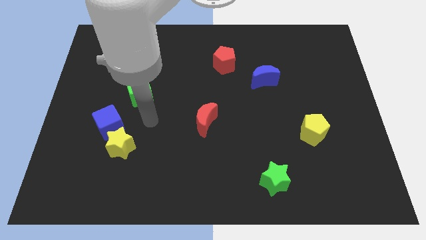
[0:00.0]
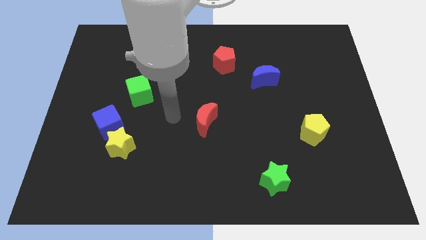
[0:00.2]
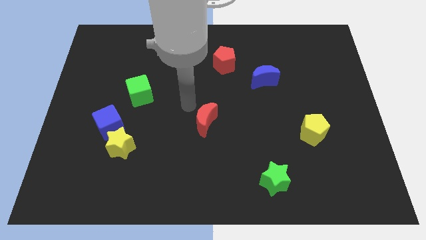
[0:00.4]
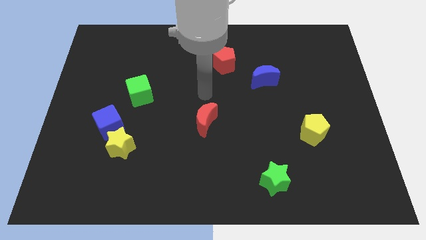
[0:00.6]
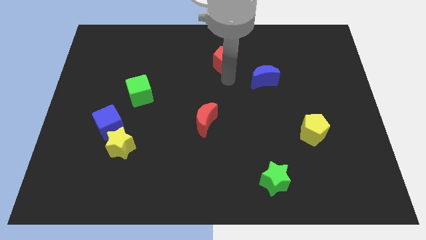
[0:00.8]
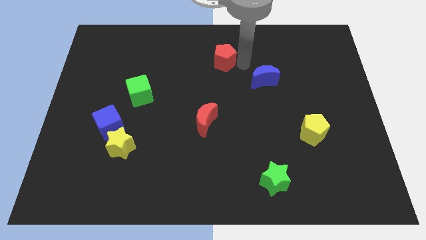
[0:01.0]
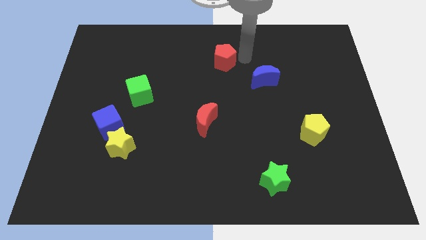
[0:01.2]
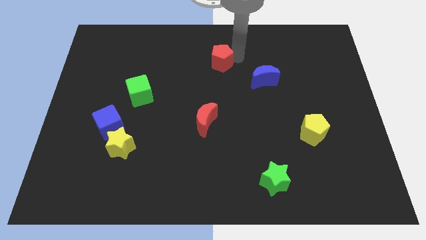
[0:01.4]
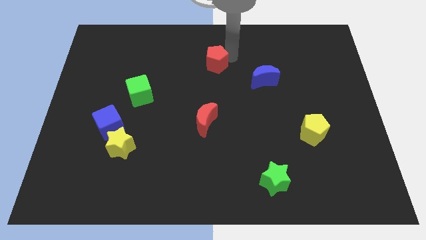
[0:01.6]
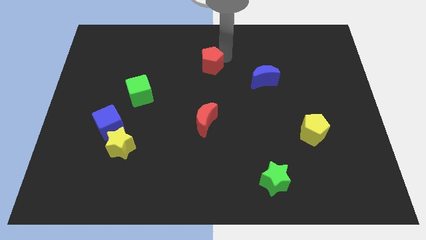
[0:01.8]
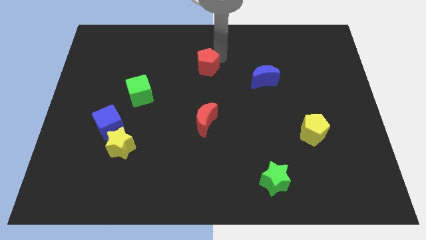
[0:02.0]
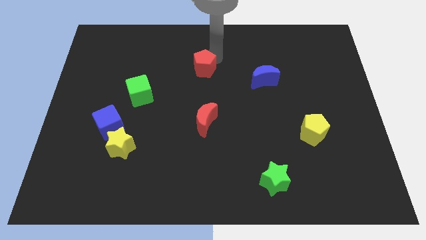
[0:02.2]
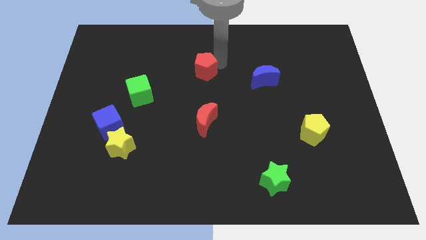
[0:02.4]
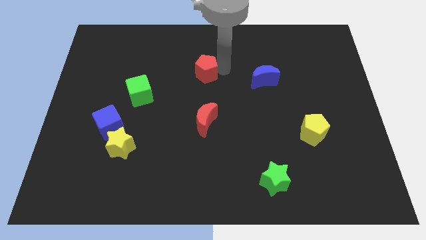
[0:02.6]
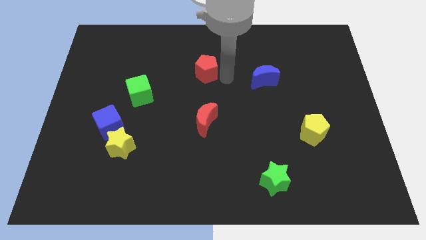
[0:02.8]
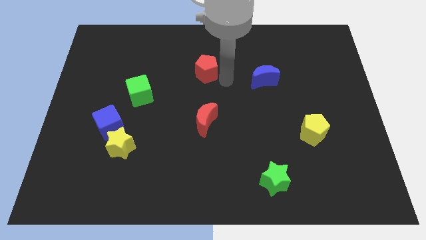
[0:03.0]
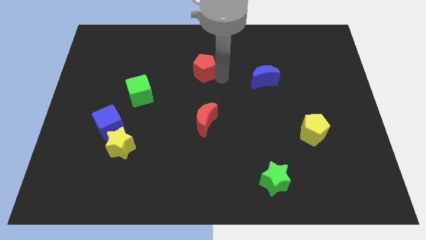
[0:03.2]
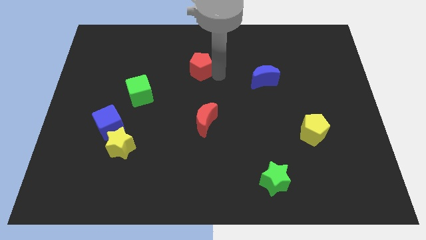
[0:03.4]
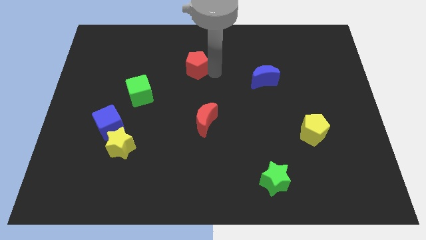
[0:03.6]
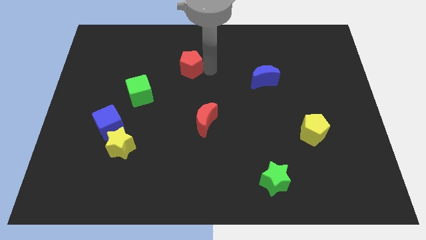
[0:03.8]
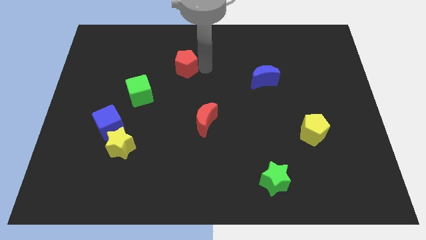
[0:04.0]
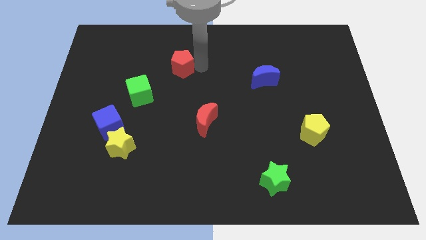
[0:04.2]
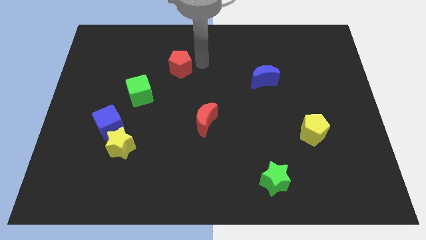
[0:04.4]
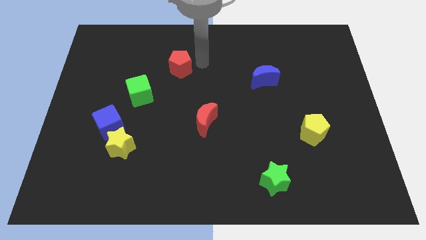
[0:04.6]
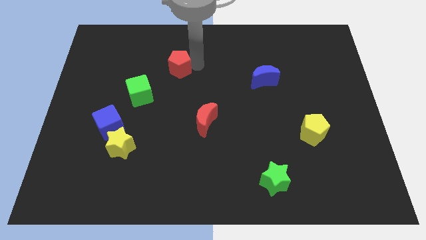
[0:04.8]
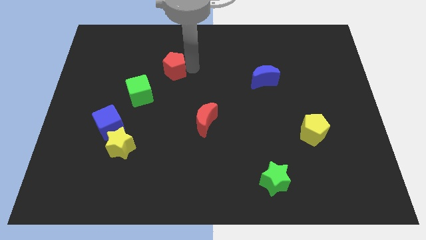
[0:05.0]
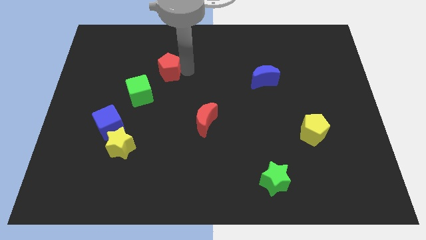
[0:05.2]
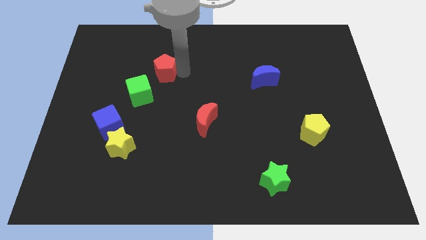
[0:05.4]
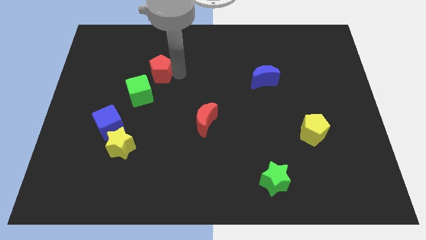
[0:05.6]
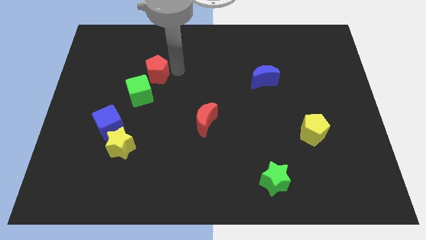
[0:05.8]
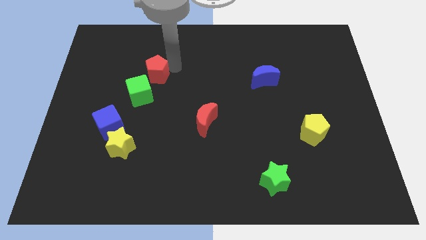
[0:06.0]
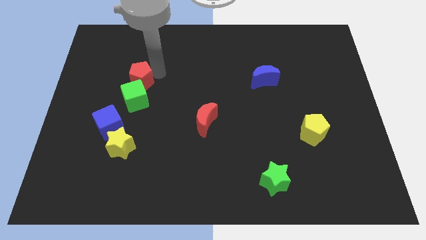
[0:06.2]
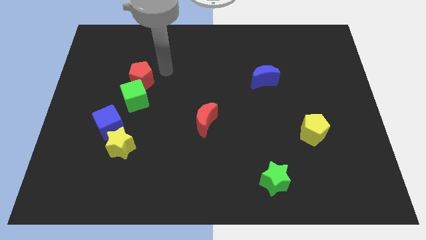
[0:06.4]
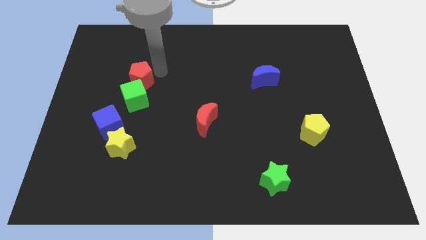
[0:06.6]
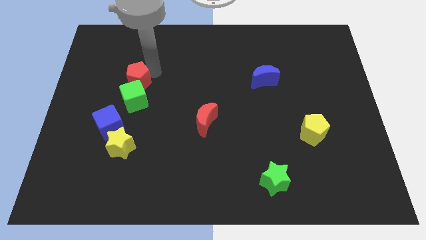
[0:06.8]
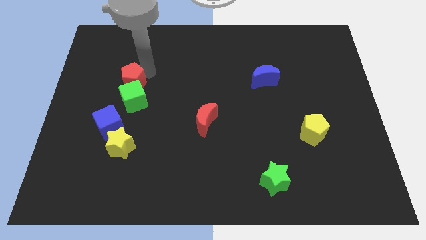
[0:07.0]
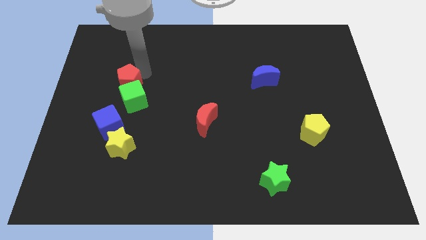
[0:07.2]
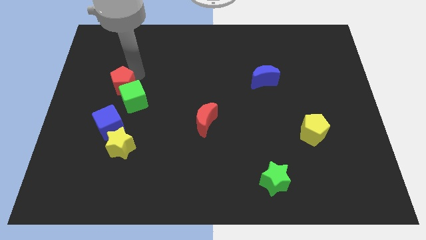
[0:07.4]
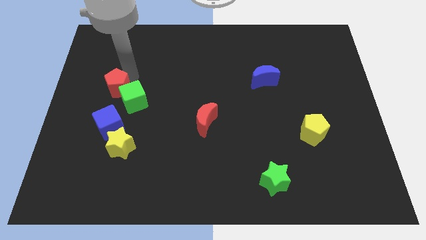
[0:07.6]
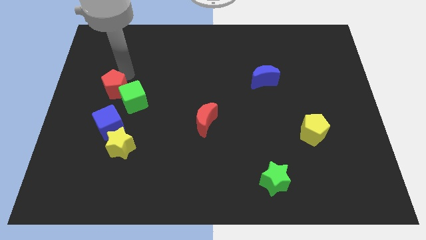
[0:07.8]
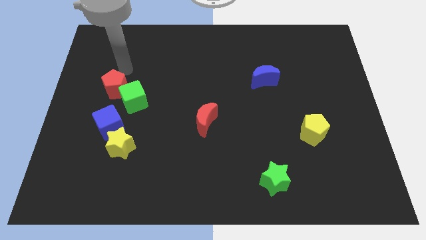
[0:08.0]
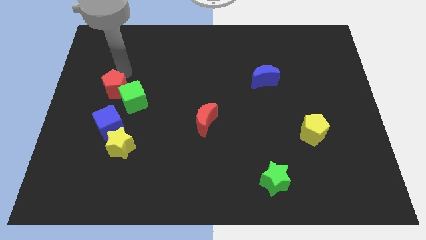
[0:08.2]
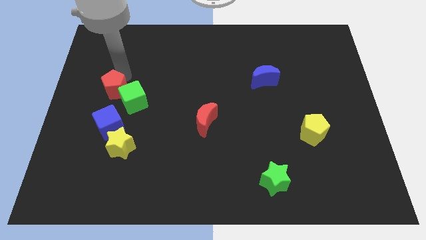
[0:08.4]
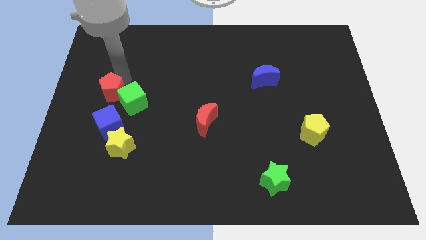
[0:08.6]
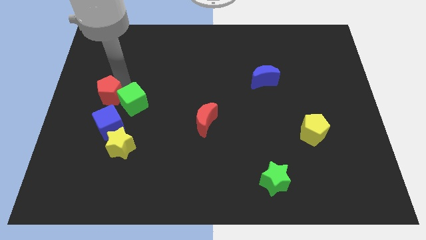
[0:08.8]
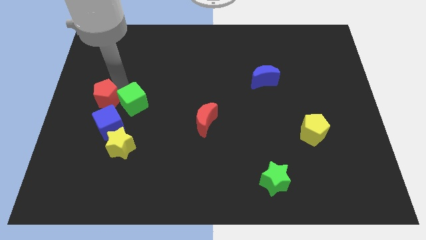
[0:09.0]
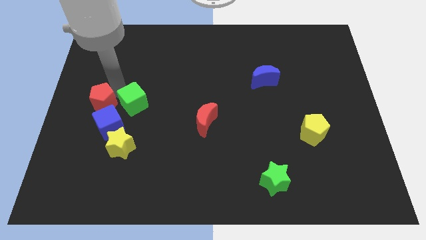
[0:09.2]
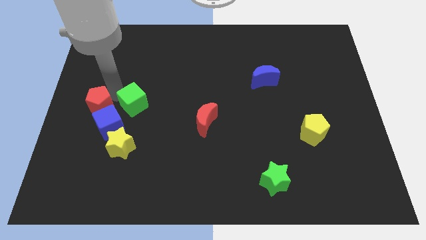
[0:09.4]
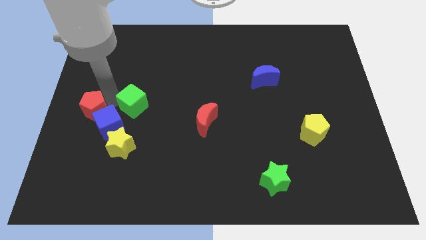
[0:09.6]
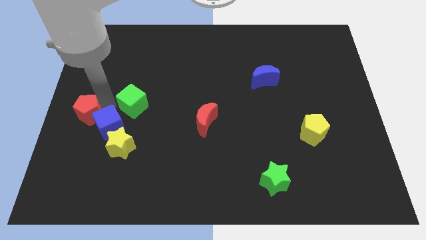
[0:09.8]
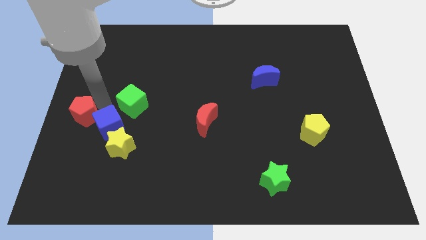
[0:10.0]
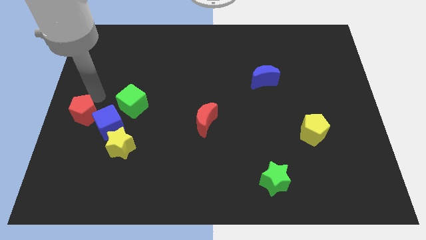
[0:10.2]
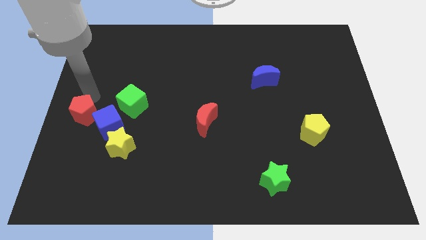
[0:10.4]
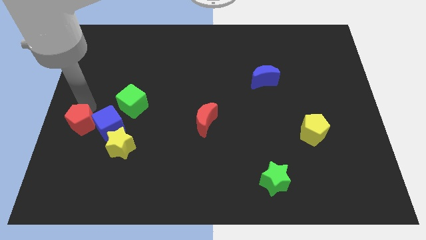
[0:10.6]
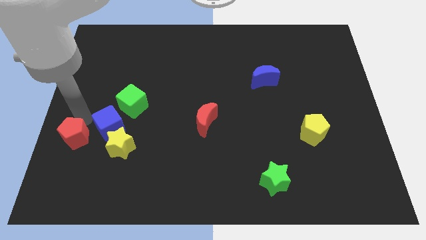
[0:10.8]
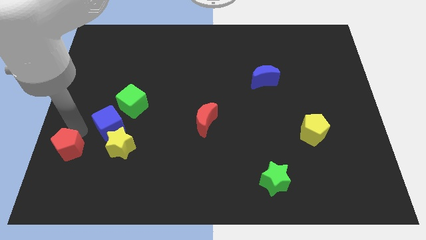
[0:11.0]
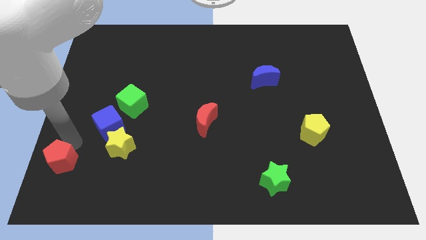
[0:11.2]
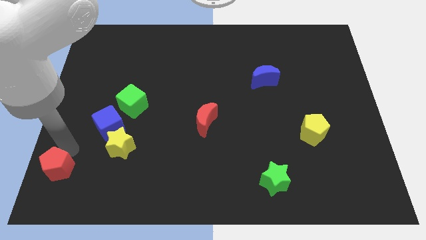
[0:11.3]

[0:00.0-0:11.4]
move the red pentagon to the lower left corner

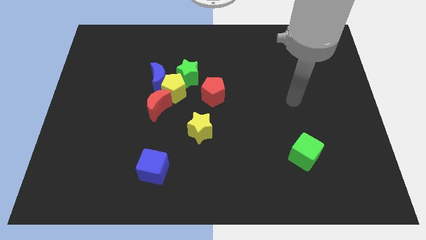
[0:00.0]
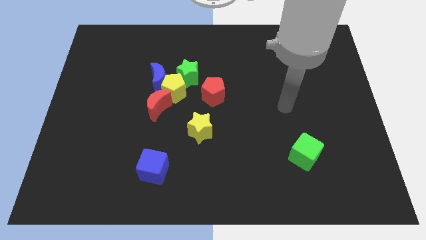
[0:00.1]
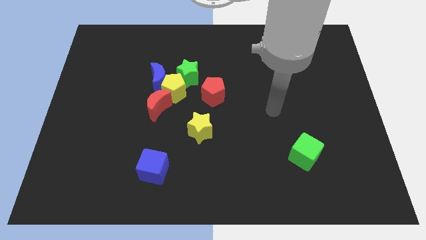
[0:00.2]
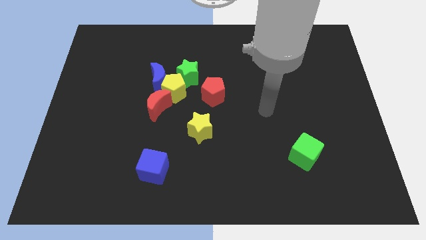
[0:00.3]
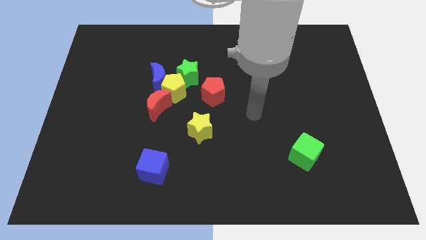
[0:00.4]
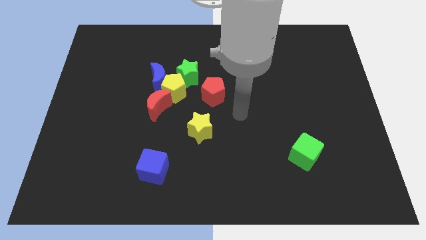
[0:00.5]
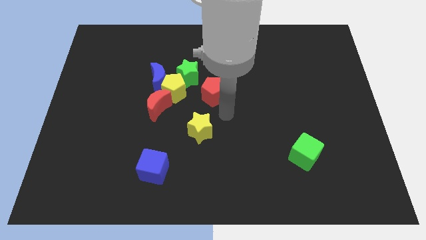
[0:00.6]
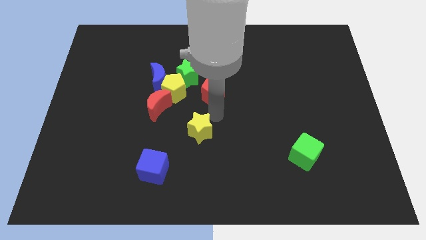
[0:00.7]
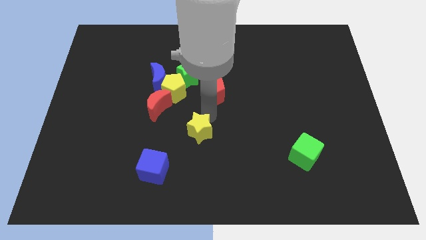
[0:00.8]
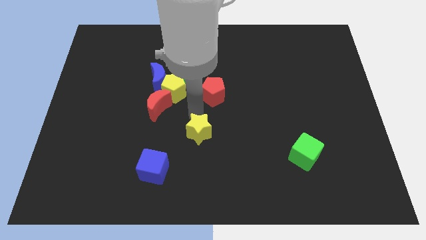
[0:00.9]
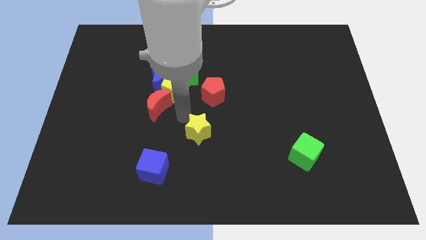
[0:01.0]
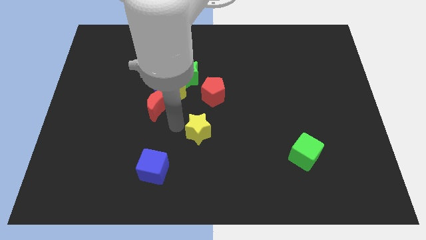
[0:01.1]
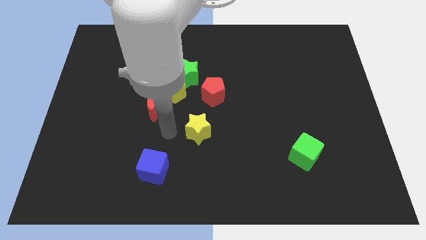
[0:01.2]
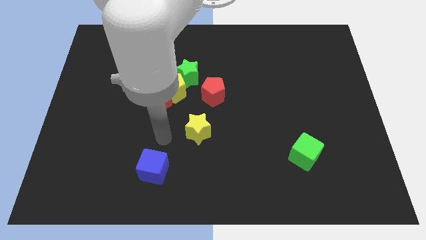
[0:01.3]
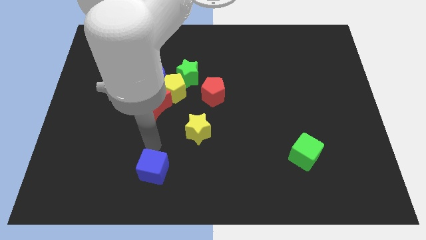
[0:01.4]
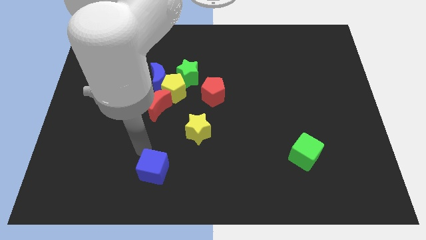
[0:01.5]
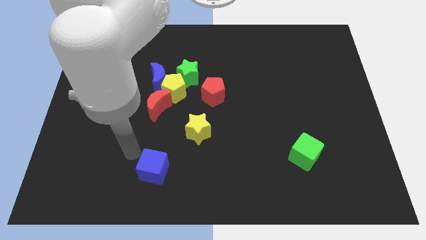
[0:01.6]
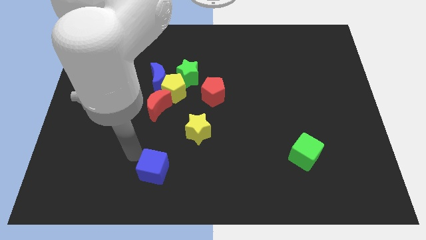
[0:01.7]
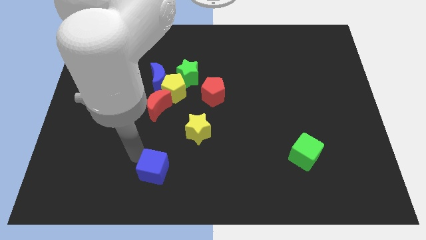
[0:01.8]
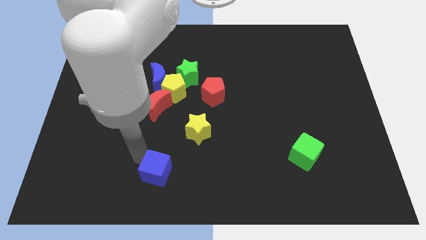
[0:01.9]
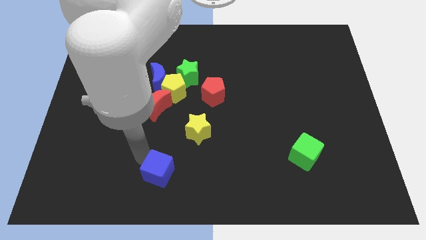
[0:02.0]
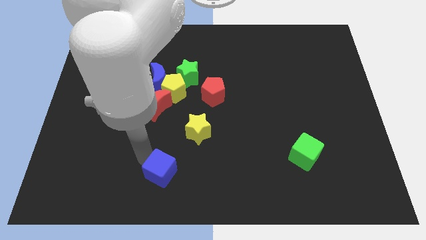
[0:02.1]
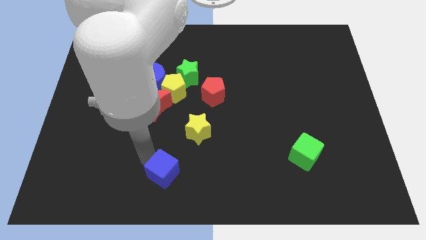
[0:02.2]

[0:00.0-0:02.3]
move the blue cube to the bottom side
